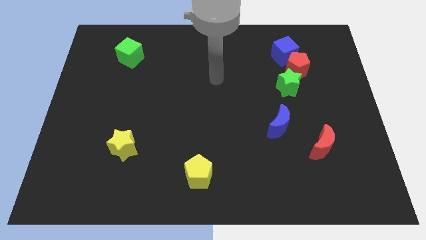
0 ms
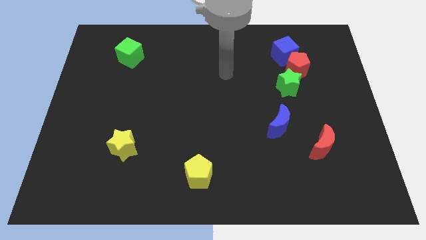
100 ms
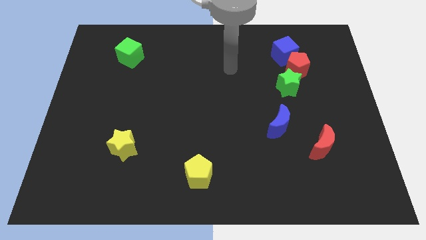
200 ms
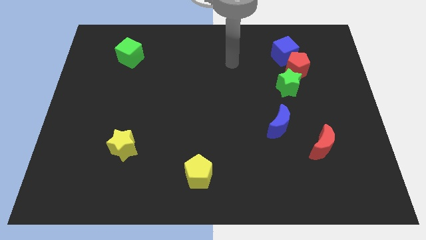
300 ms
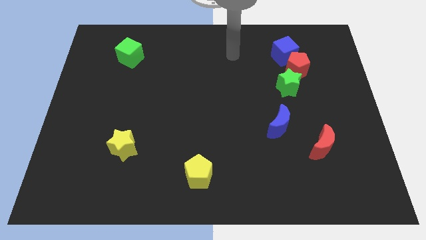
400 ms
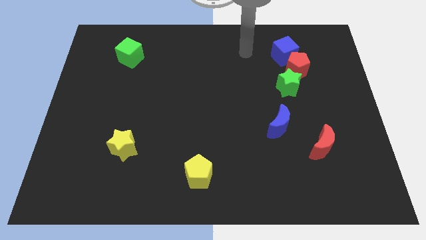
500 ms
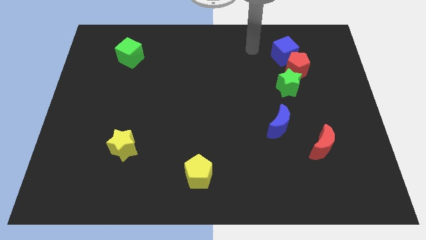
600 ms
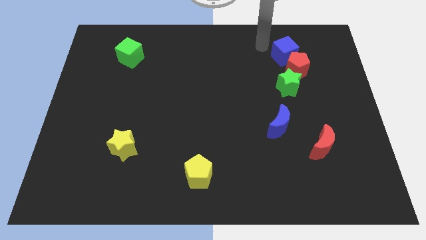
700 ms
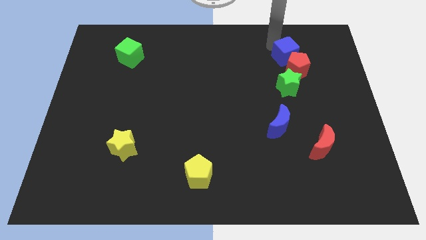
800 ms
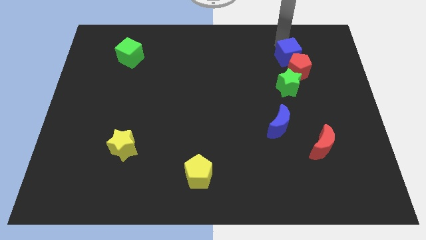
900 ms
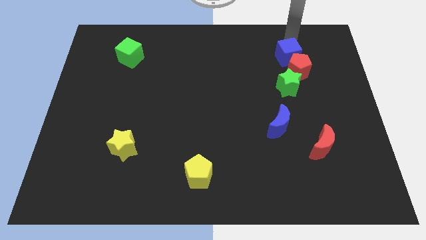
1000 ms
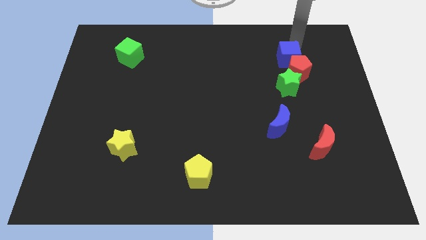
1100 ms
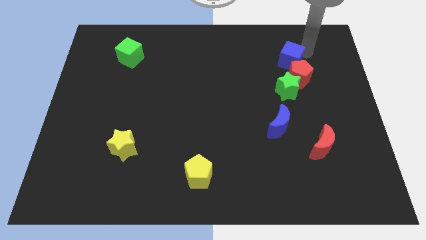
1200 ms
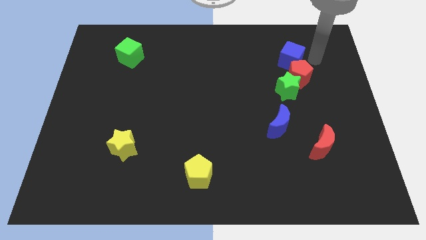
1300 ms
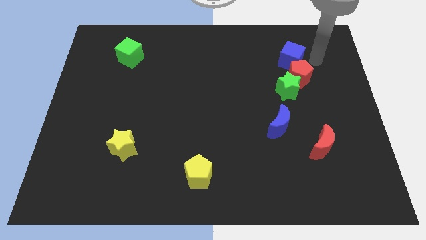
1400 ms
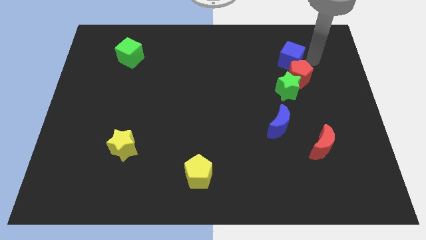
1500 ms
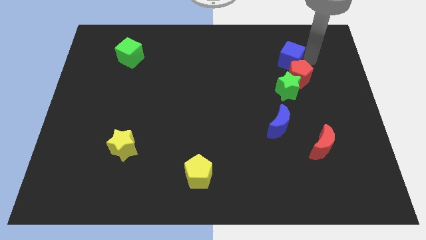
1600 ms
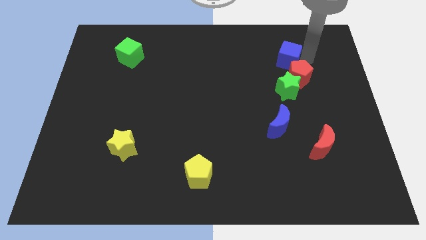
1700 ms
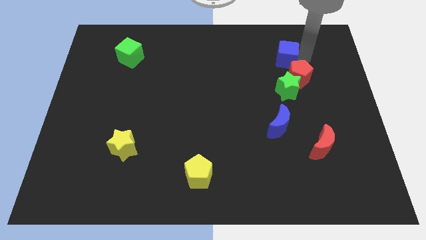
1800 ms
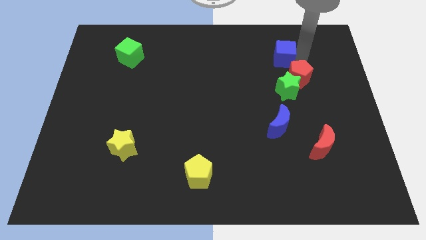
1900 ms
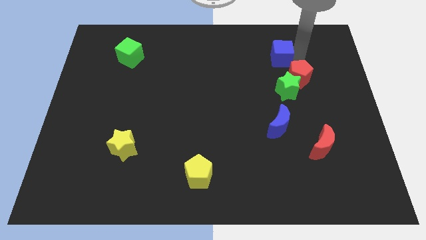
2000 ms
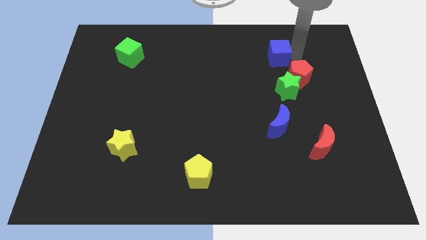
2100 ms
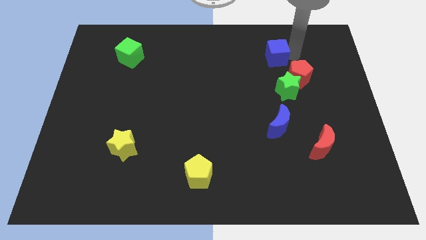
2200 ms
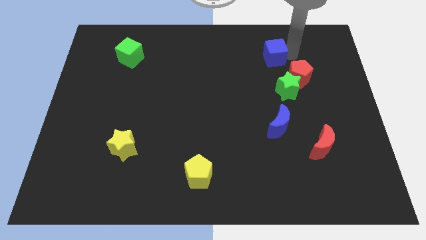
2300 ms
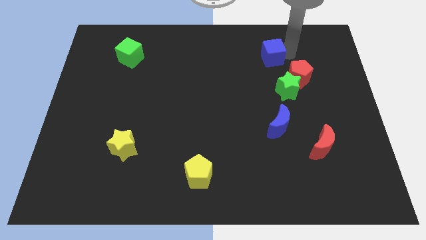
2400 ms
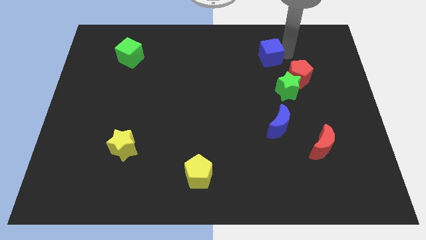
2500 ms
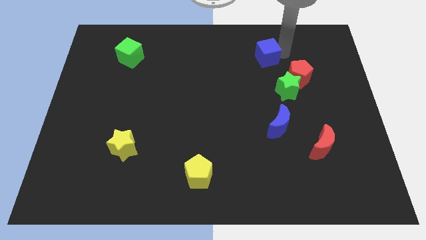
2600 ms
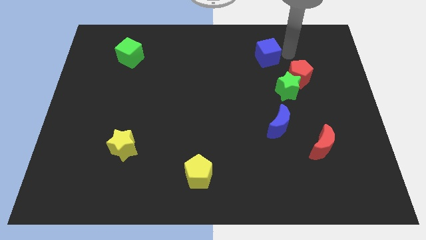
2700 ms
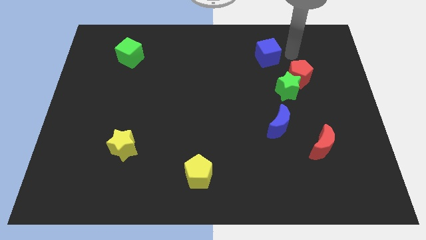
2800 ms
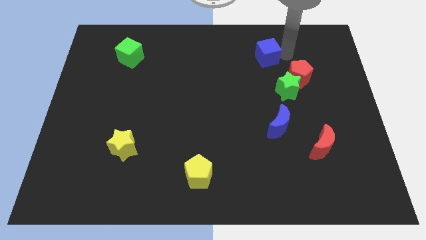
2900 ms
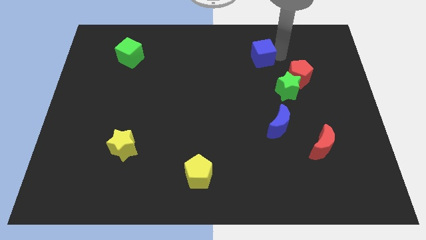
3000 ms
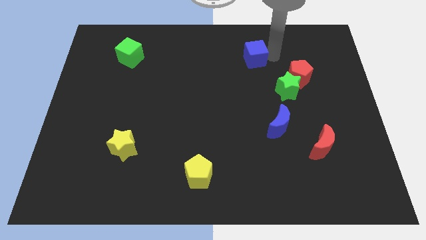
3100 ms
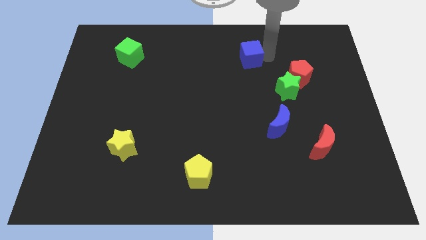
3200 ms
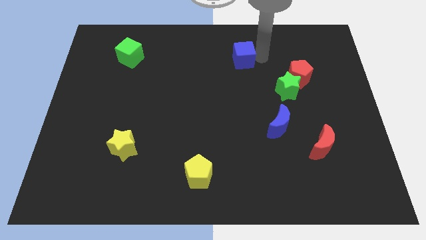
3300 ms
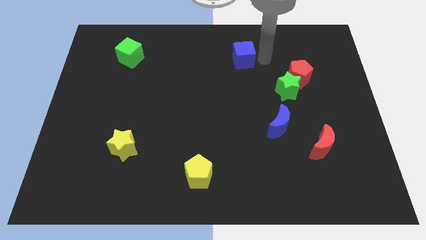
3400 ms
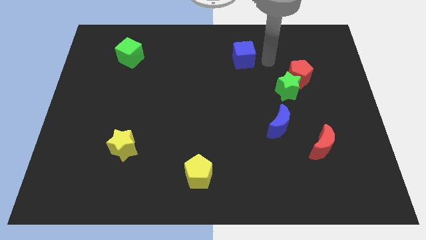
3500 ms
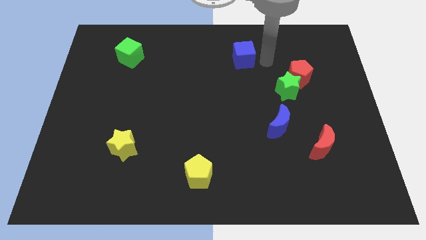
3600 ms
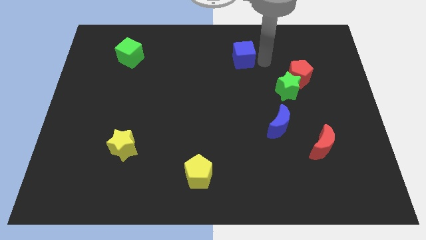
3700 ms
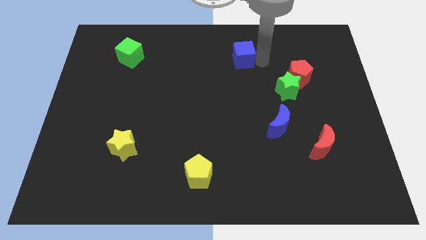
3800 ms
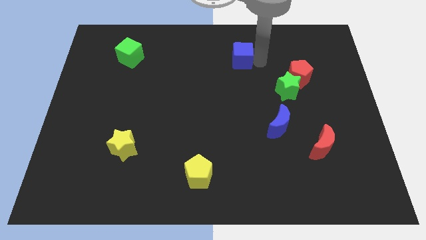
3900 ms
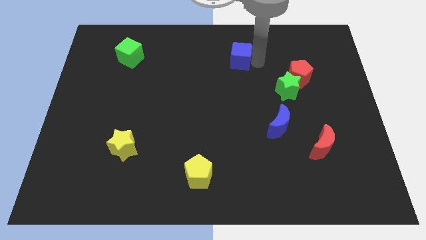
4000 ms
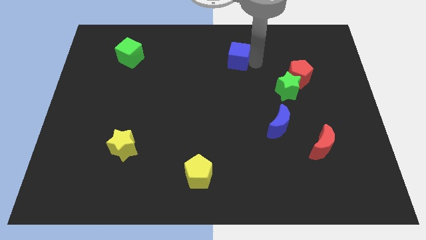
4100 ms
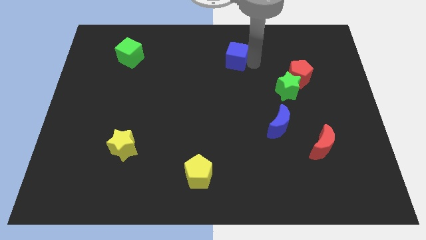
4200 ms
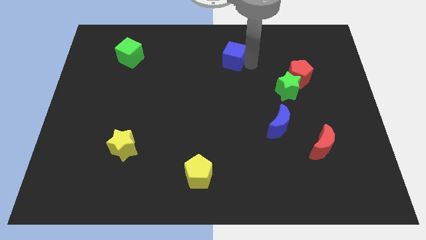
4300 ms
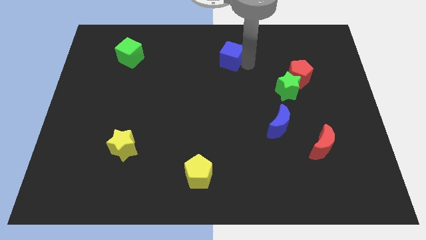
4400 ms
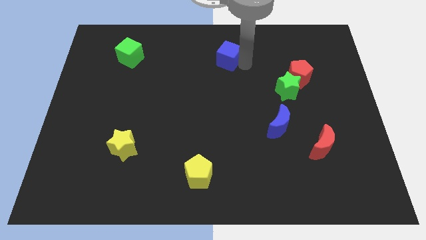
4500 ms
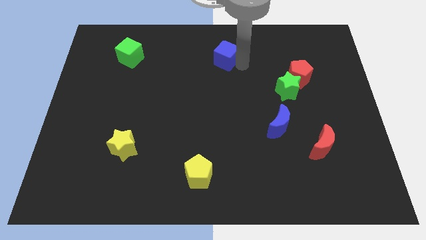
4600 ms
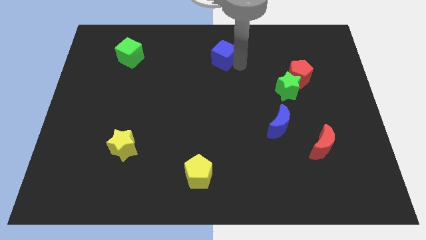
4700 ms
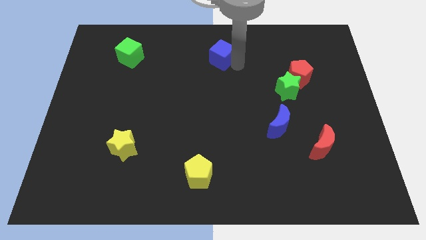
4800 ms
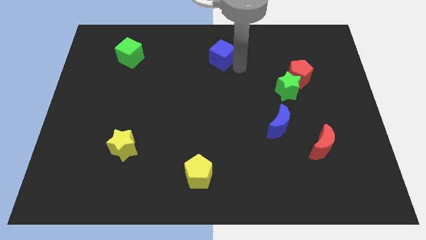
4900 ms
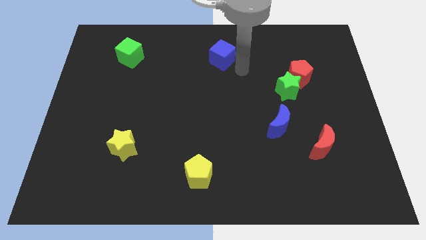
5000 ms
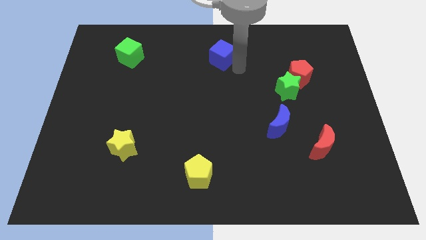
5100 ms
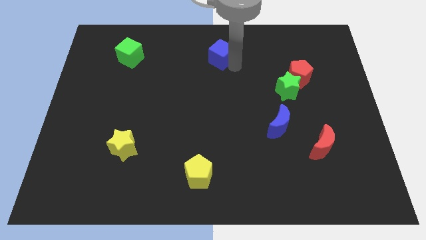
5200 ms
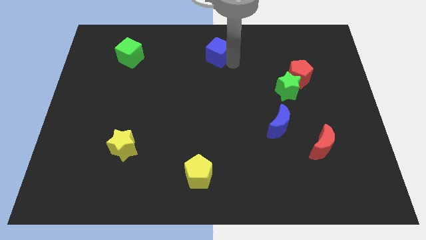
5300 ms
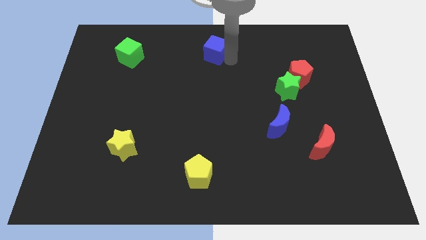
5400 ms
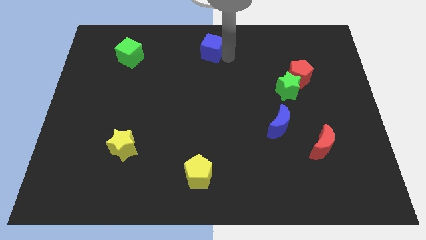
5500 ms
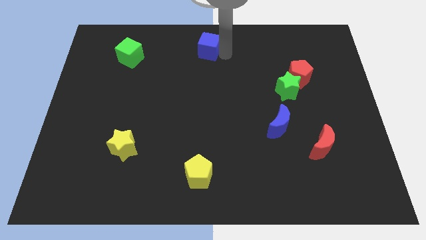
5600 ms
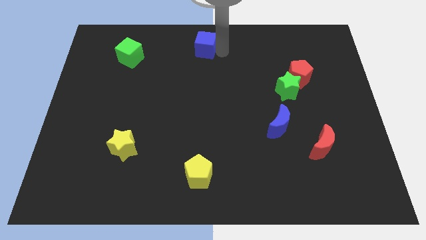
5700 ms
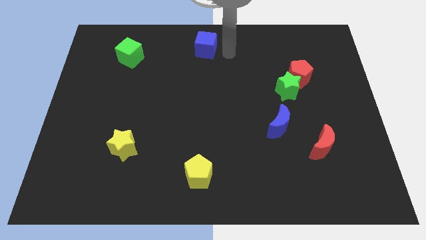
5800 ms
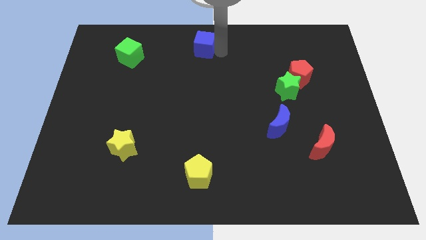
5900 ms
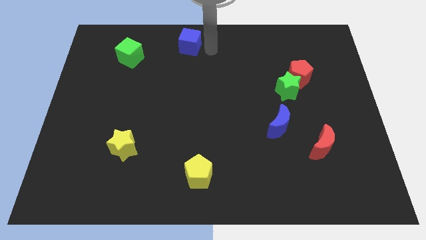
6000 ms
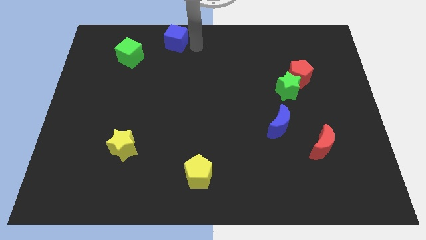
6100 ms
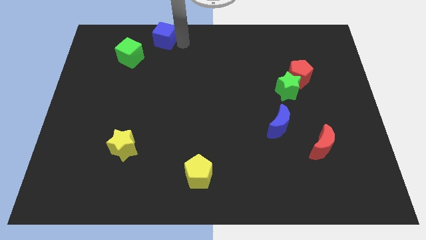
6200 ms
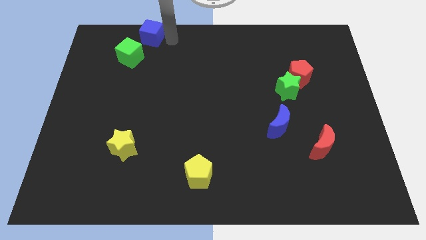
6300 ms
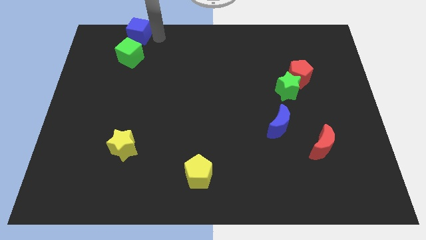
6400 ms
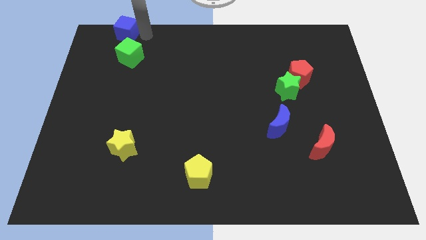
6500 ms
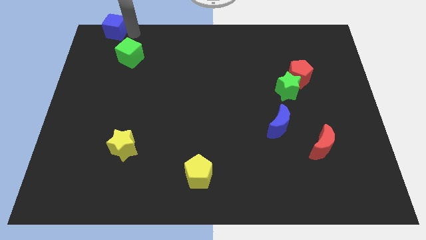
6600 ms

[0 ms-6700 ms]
slide the blue cube to the top left corner

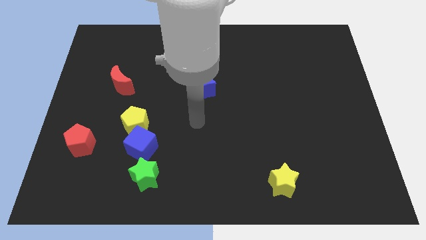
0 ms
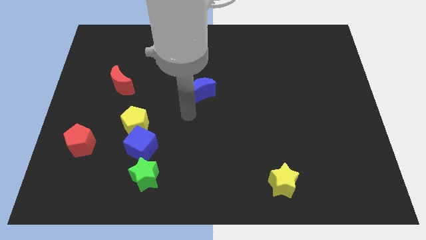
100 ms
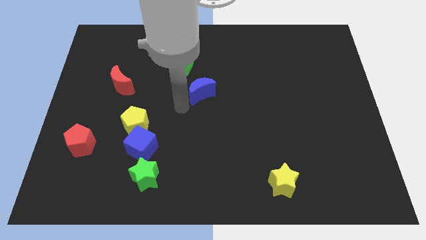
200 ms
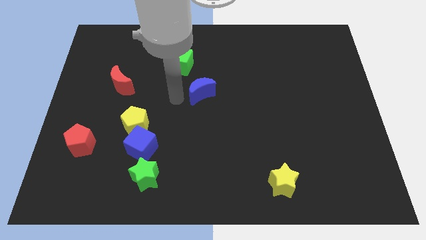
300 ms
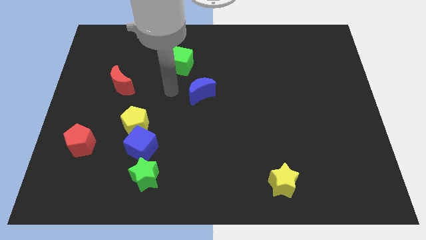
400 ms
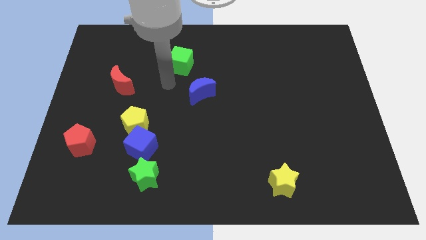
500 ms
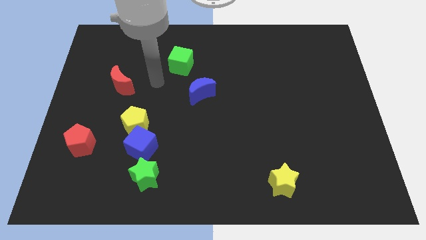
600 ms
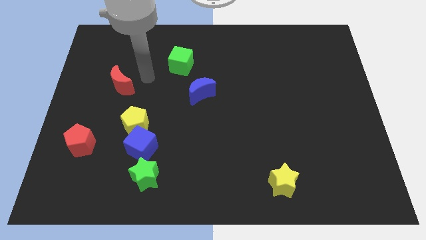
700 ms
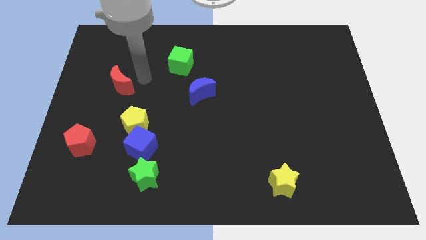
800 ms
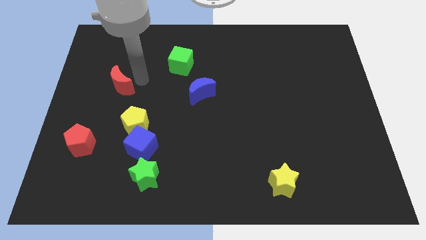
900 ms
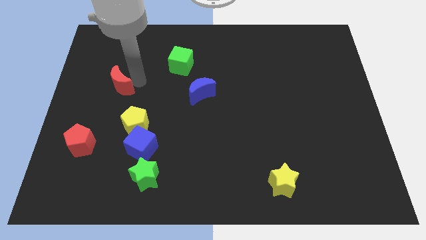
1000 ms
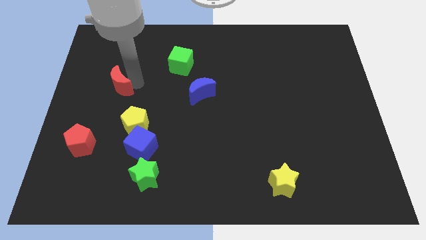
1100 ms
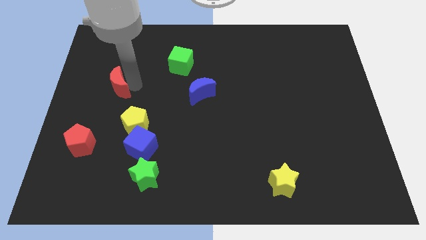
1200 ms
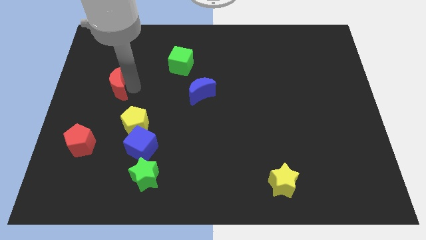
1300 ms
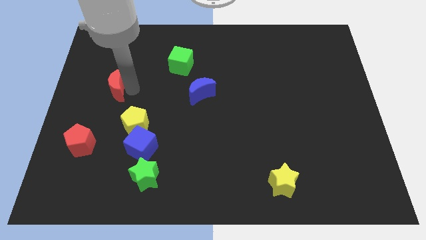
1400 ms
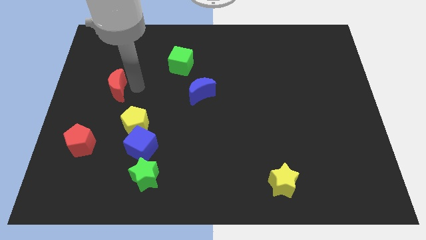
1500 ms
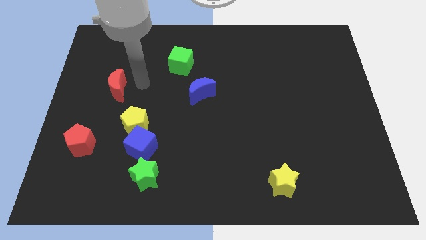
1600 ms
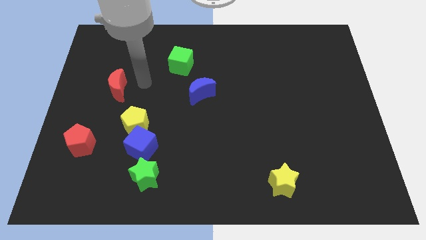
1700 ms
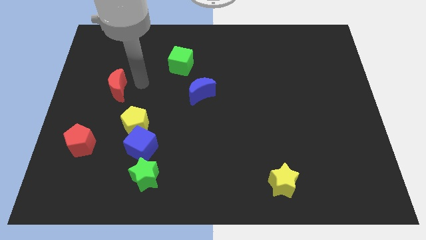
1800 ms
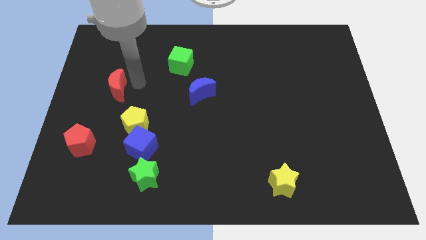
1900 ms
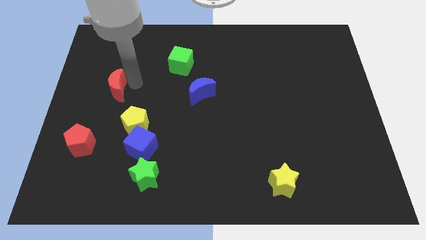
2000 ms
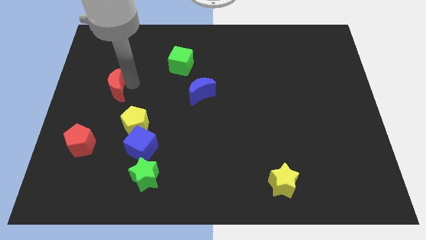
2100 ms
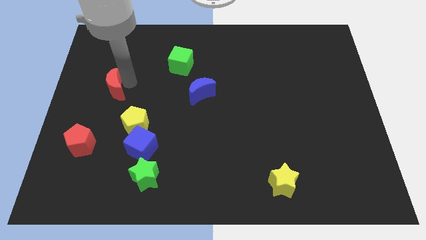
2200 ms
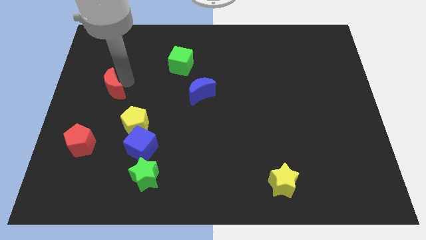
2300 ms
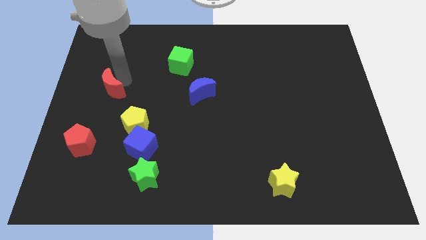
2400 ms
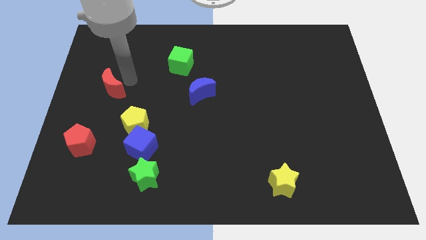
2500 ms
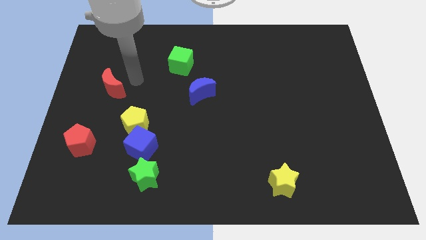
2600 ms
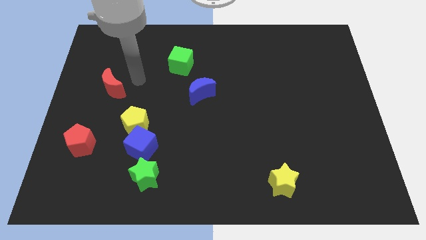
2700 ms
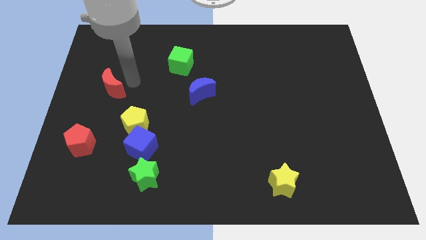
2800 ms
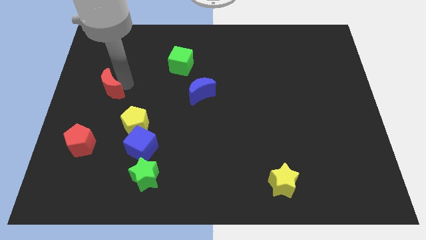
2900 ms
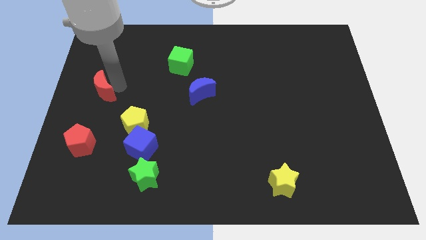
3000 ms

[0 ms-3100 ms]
push the red moon to the left side
